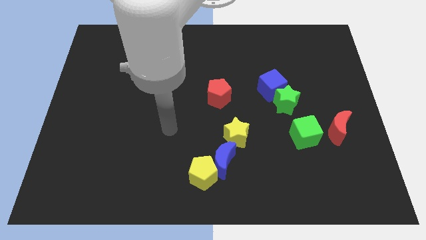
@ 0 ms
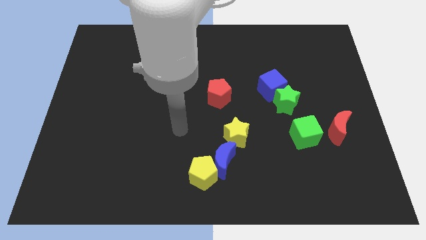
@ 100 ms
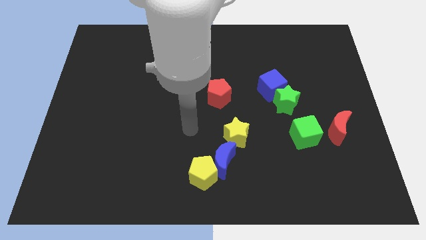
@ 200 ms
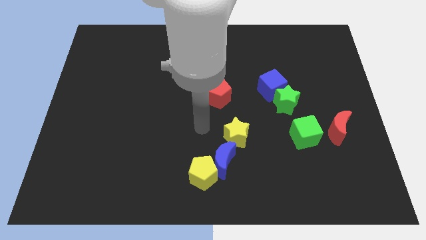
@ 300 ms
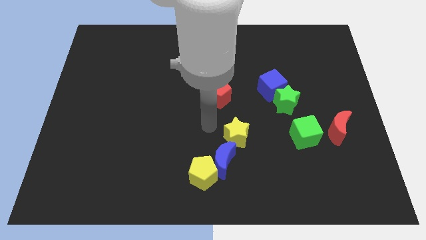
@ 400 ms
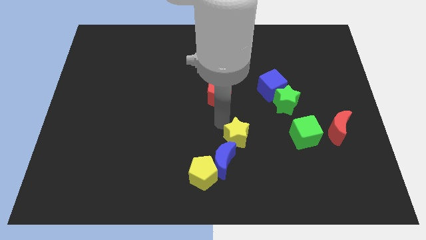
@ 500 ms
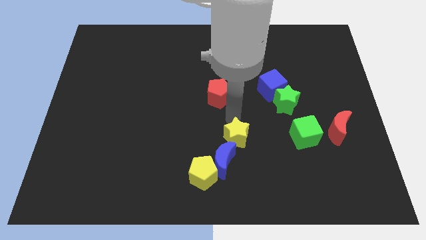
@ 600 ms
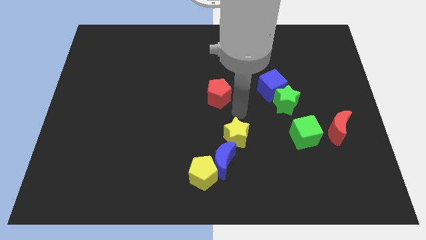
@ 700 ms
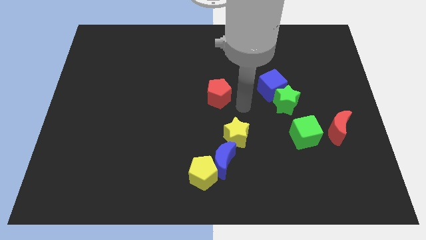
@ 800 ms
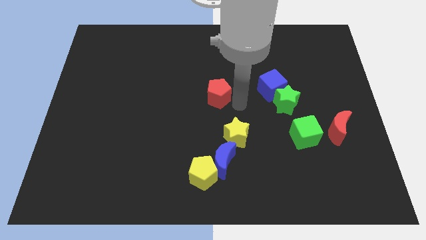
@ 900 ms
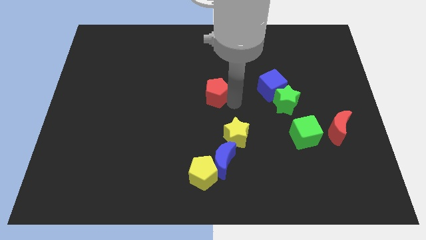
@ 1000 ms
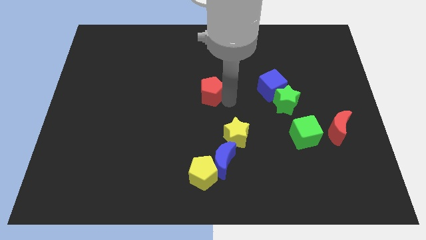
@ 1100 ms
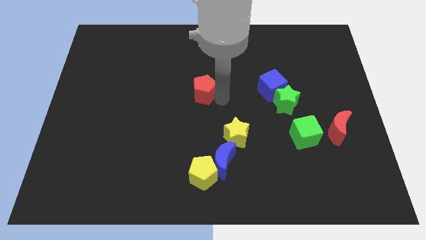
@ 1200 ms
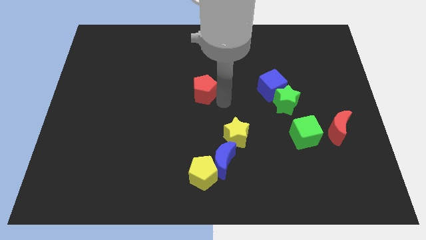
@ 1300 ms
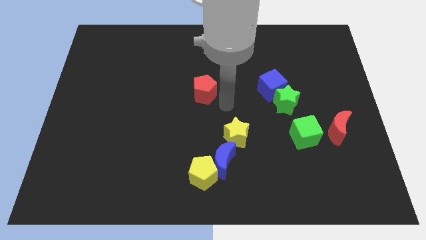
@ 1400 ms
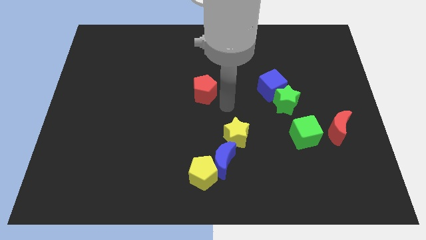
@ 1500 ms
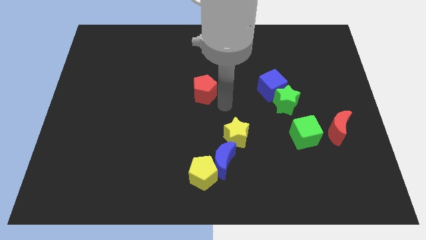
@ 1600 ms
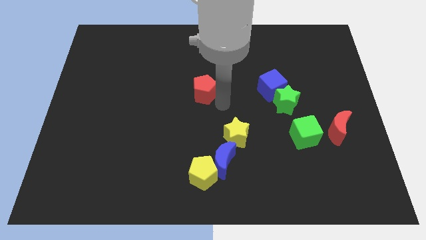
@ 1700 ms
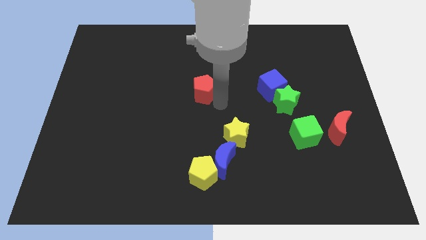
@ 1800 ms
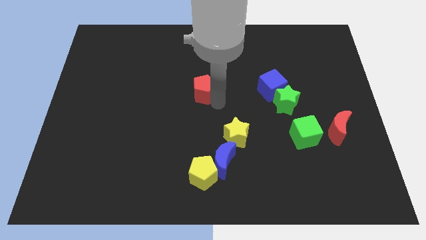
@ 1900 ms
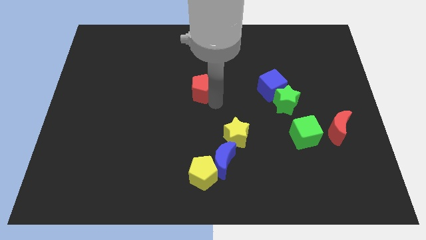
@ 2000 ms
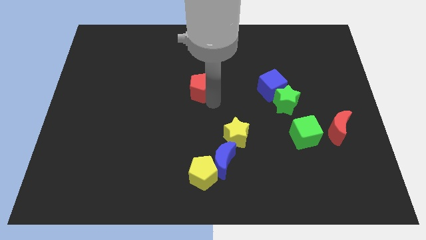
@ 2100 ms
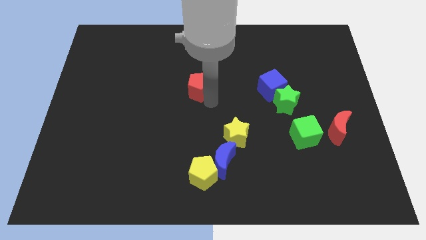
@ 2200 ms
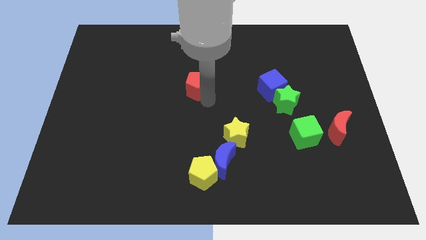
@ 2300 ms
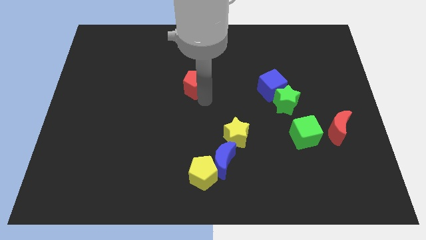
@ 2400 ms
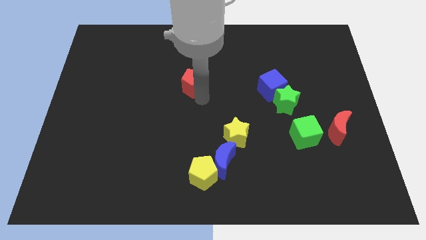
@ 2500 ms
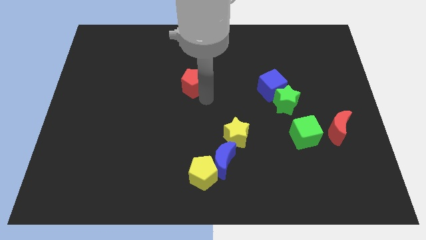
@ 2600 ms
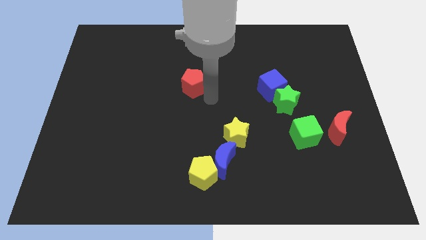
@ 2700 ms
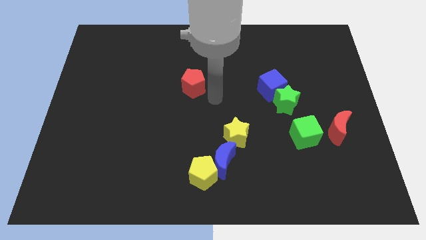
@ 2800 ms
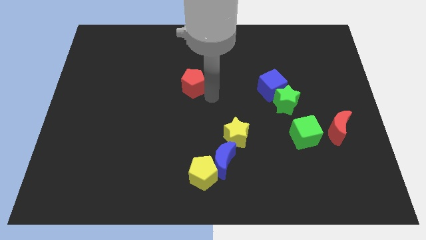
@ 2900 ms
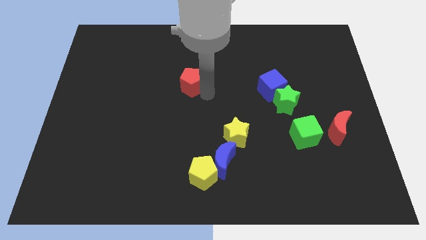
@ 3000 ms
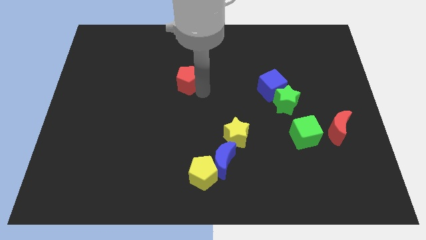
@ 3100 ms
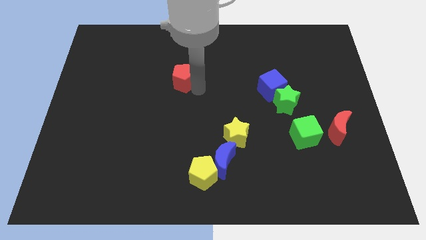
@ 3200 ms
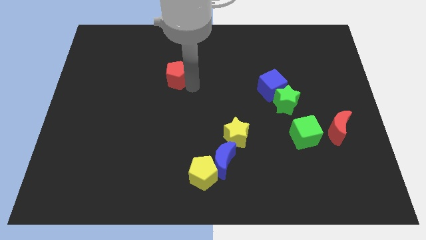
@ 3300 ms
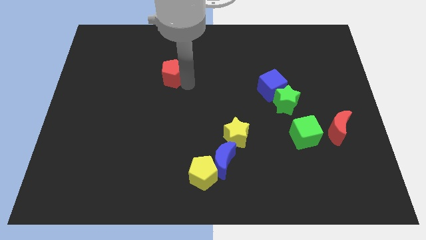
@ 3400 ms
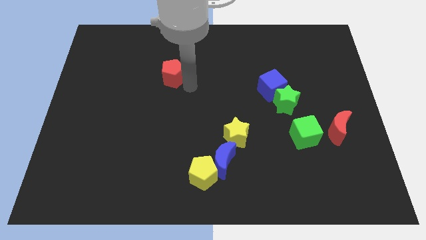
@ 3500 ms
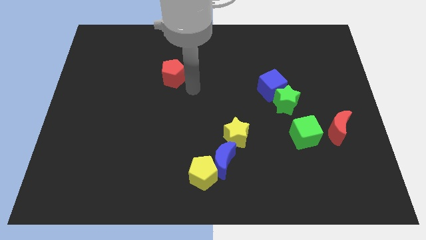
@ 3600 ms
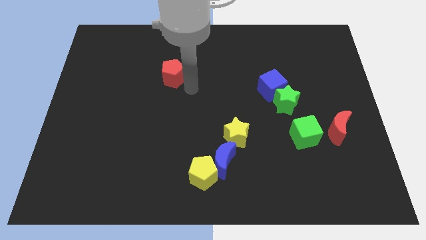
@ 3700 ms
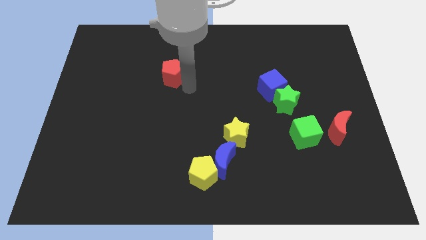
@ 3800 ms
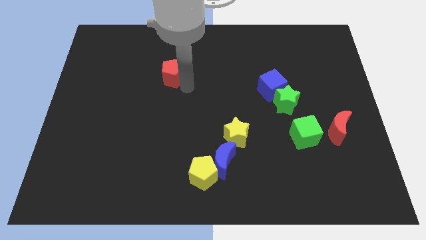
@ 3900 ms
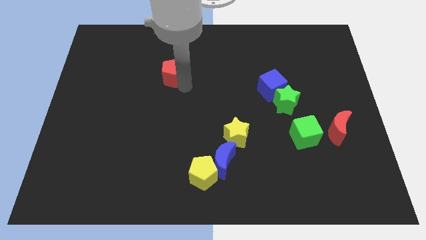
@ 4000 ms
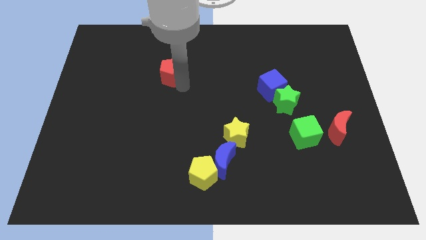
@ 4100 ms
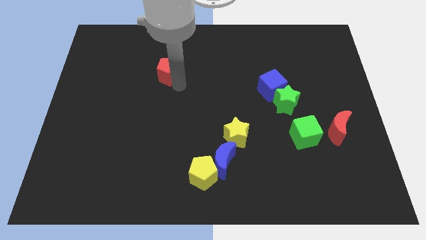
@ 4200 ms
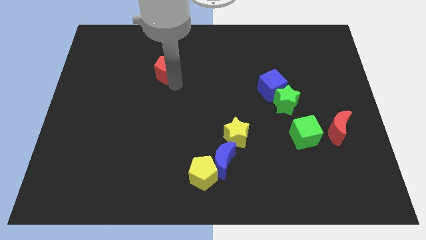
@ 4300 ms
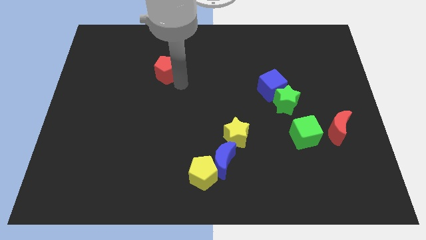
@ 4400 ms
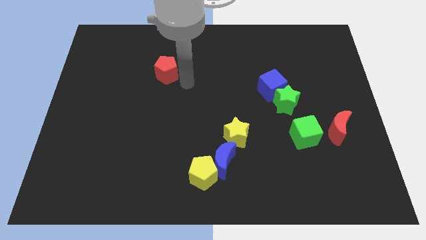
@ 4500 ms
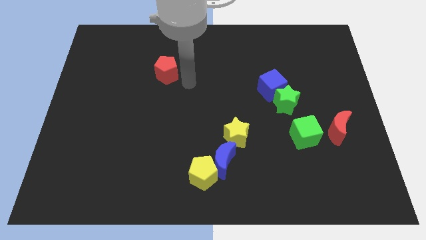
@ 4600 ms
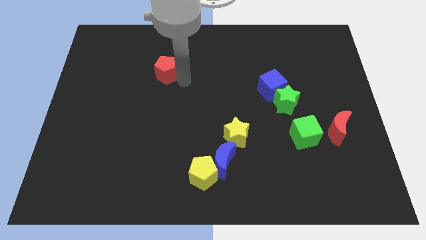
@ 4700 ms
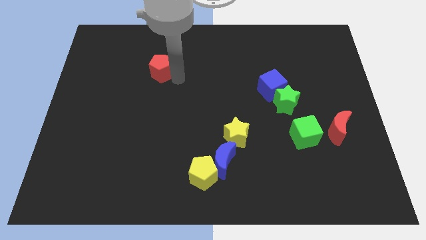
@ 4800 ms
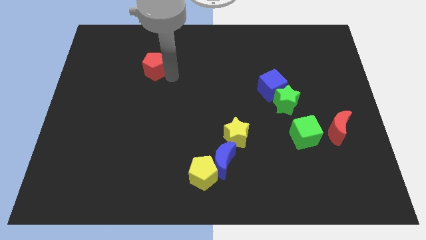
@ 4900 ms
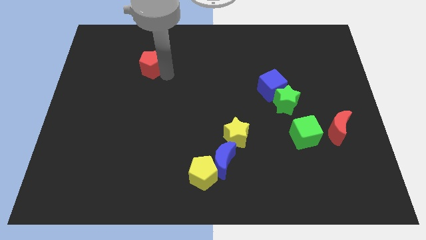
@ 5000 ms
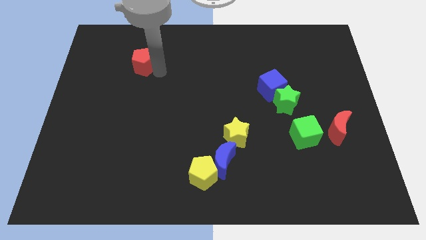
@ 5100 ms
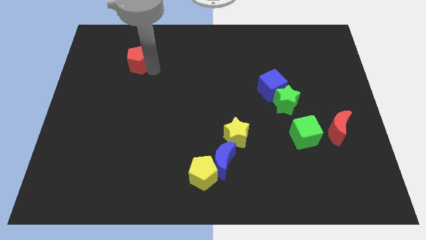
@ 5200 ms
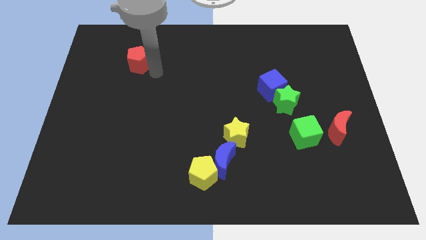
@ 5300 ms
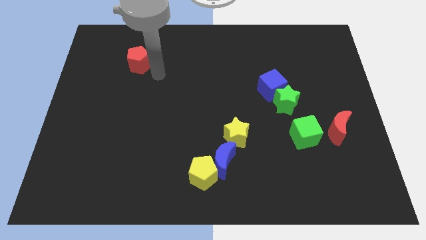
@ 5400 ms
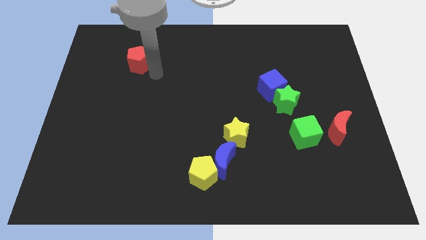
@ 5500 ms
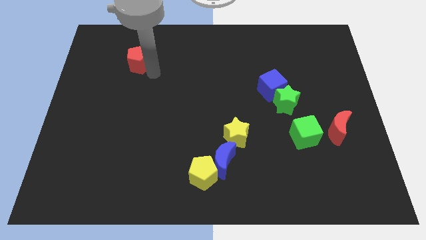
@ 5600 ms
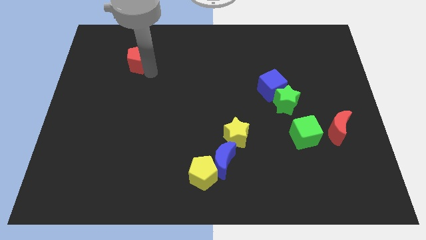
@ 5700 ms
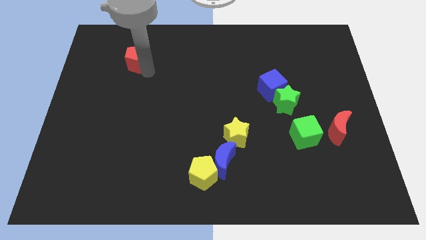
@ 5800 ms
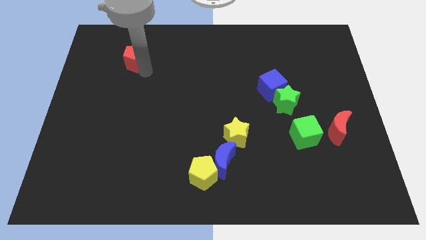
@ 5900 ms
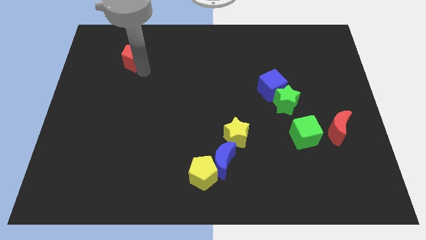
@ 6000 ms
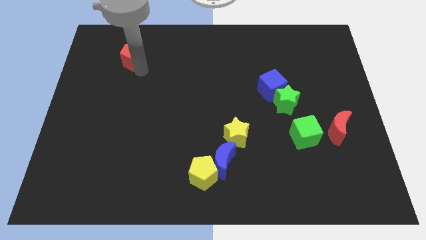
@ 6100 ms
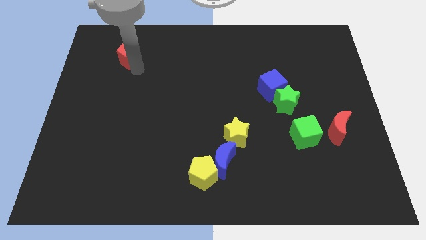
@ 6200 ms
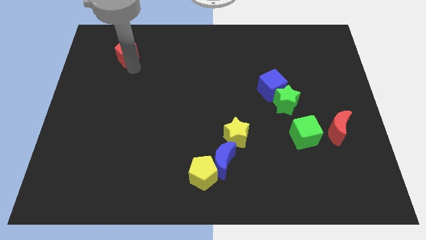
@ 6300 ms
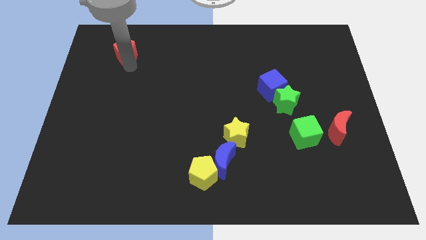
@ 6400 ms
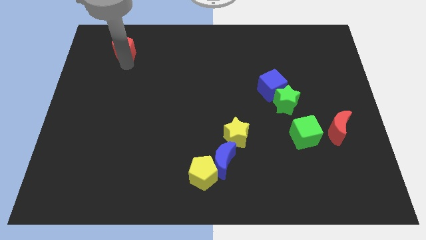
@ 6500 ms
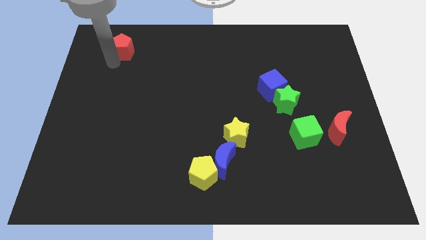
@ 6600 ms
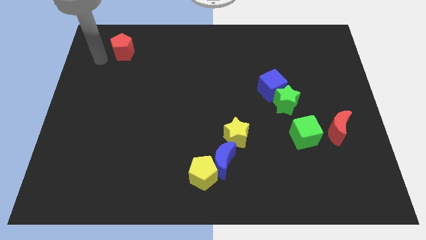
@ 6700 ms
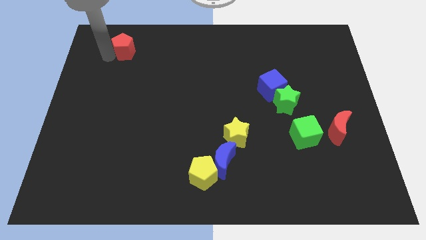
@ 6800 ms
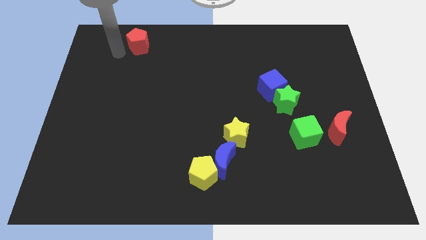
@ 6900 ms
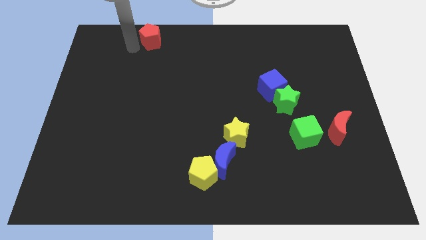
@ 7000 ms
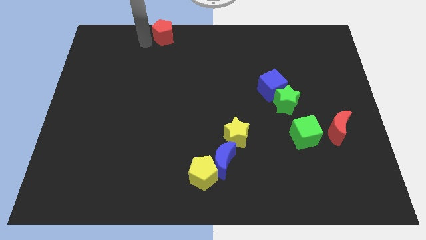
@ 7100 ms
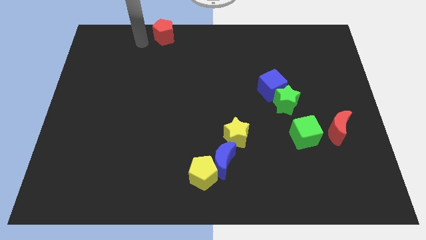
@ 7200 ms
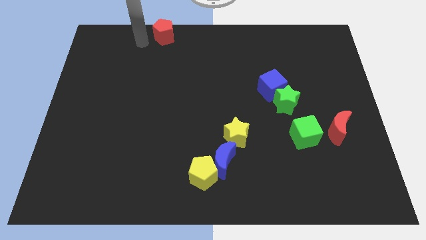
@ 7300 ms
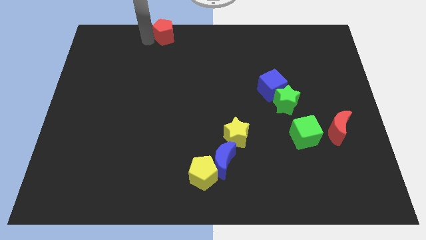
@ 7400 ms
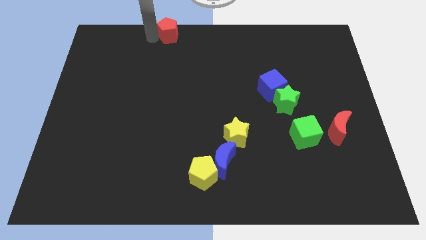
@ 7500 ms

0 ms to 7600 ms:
put the red pentagon to the towards your base
